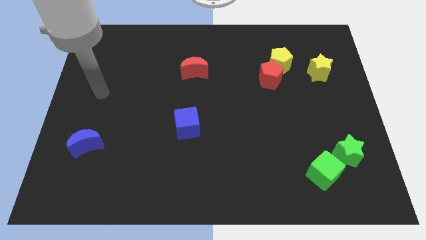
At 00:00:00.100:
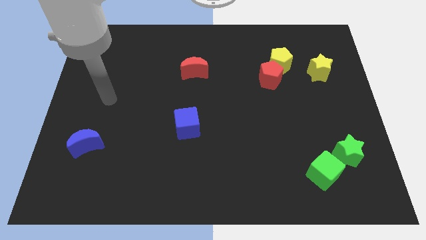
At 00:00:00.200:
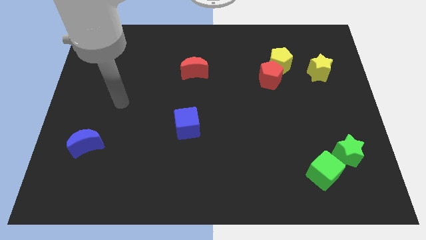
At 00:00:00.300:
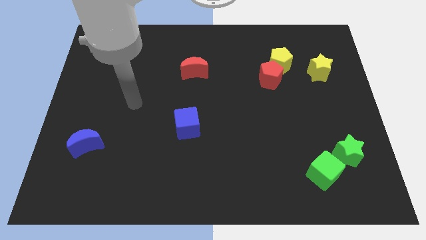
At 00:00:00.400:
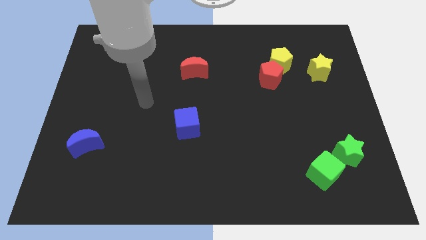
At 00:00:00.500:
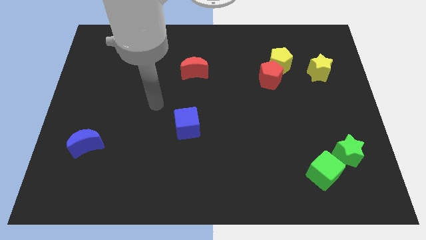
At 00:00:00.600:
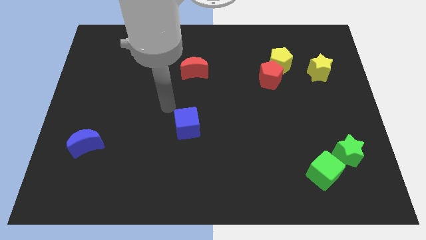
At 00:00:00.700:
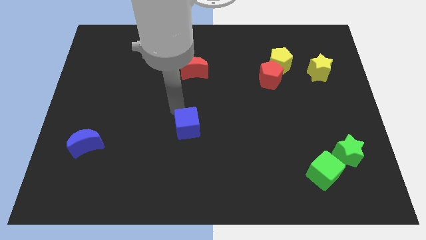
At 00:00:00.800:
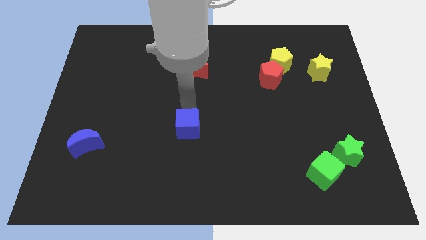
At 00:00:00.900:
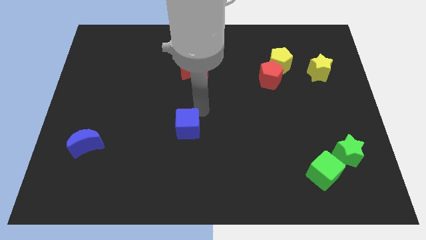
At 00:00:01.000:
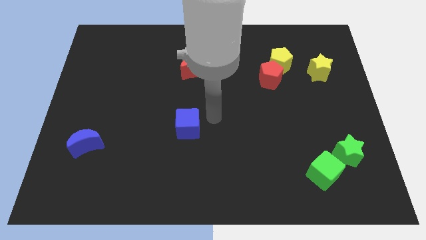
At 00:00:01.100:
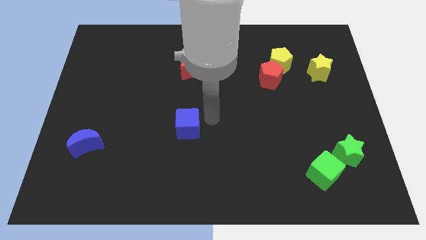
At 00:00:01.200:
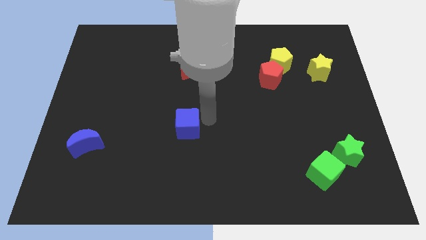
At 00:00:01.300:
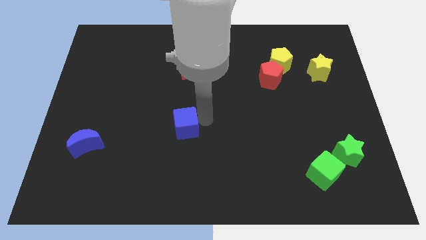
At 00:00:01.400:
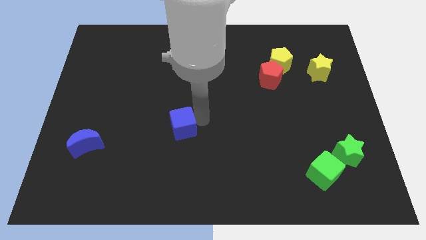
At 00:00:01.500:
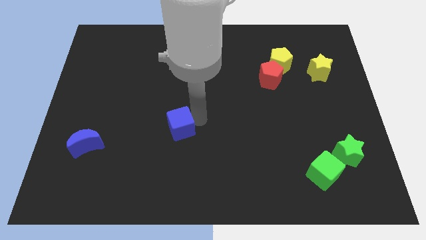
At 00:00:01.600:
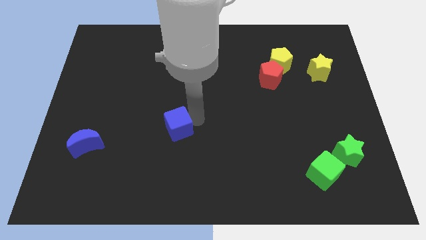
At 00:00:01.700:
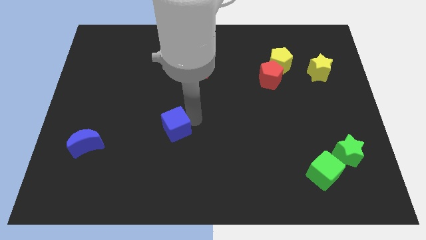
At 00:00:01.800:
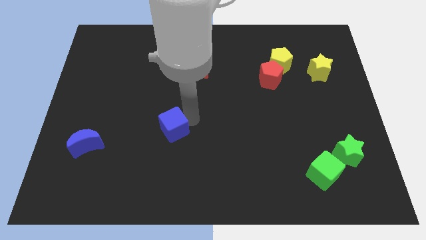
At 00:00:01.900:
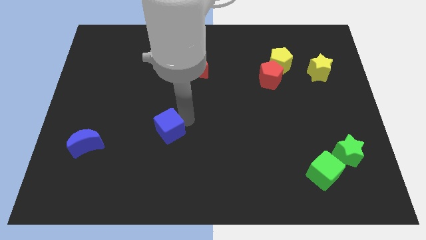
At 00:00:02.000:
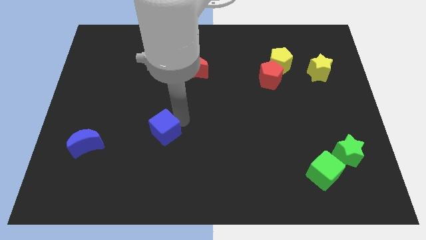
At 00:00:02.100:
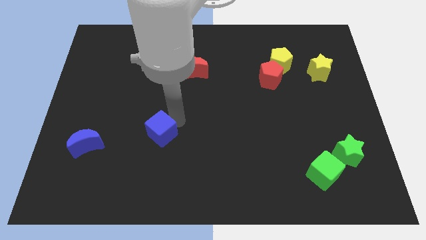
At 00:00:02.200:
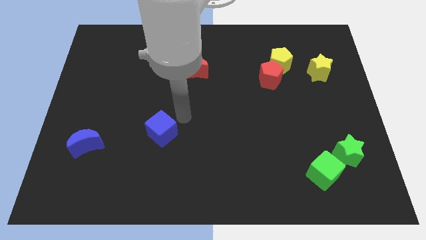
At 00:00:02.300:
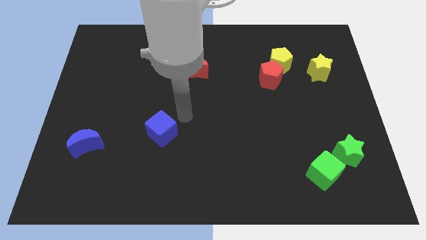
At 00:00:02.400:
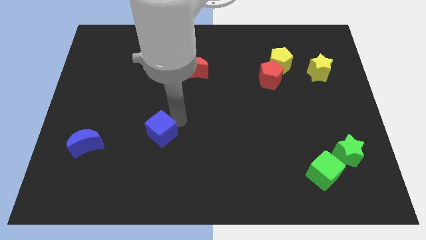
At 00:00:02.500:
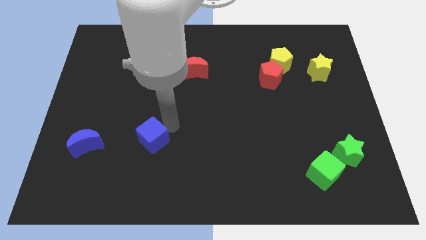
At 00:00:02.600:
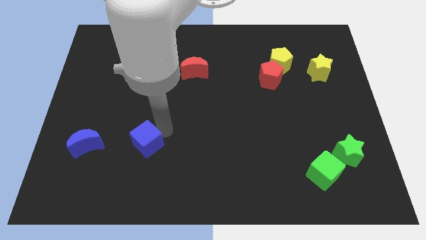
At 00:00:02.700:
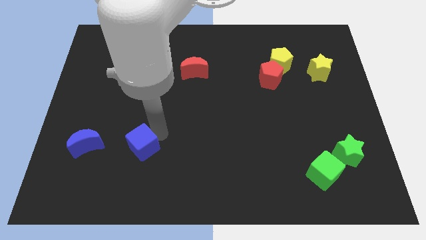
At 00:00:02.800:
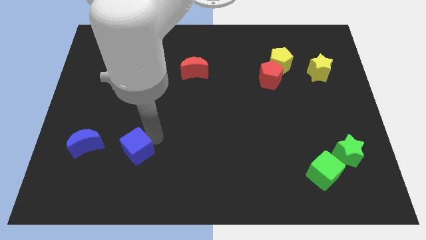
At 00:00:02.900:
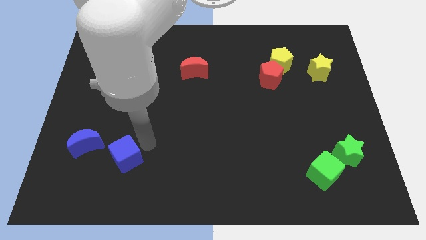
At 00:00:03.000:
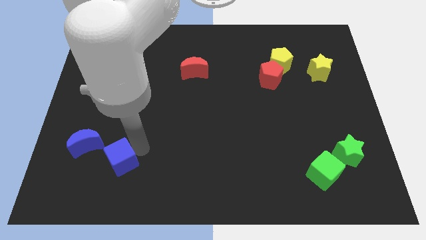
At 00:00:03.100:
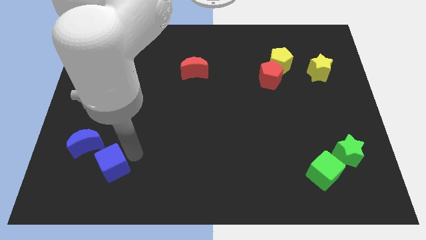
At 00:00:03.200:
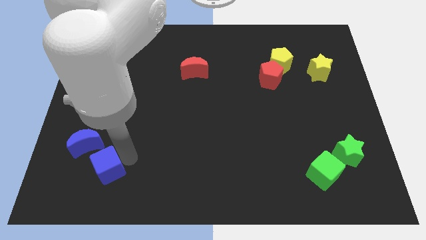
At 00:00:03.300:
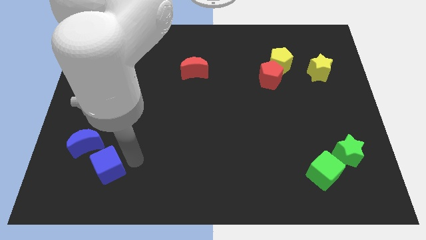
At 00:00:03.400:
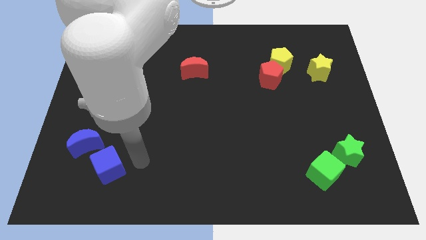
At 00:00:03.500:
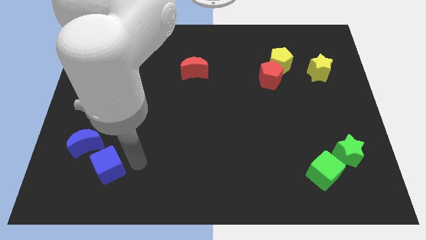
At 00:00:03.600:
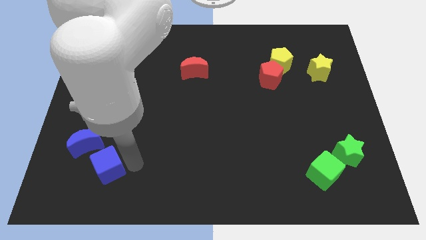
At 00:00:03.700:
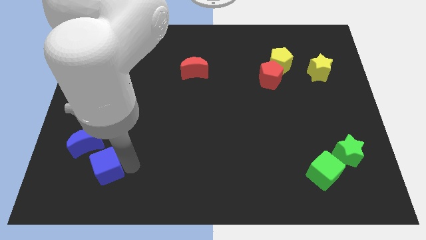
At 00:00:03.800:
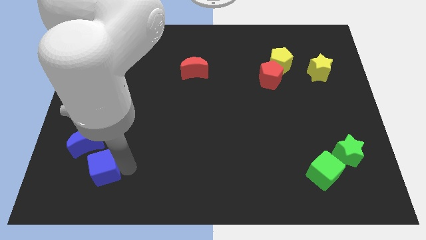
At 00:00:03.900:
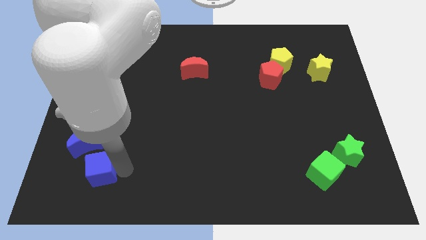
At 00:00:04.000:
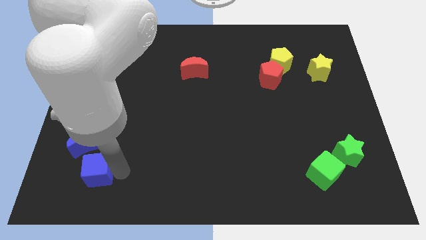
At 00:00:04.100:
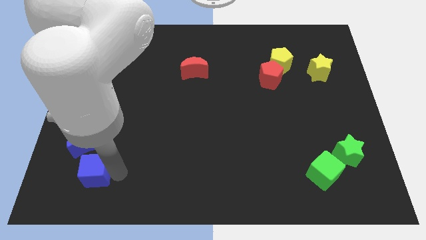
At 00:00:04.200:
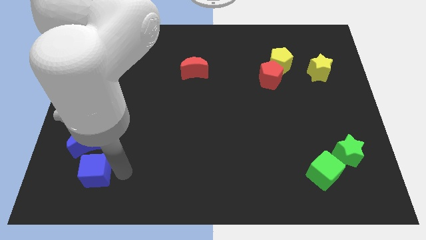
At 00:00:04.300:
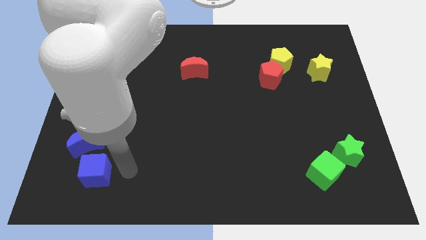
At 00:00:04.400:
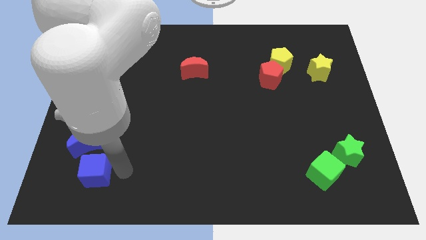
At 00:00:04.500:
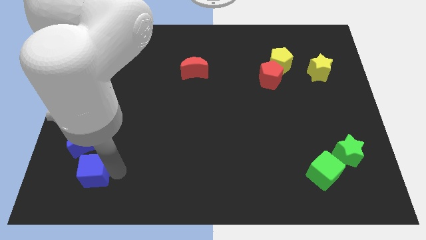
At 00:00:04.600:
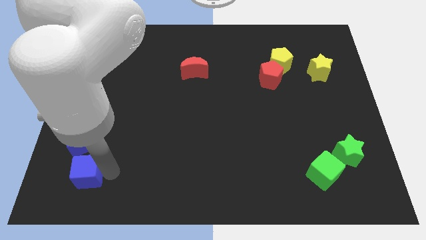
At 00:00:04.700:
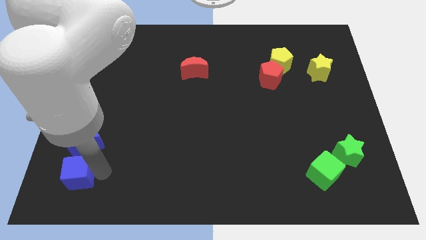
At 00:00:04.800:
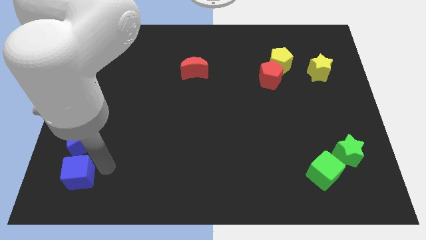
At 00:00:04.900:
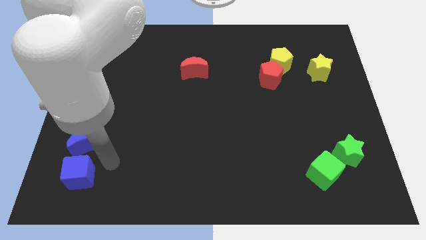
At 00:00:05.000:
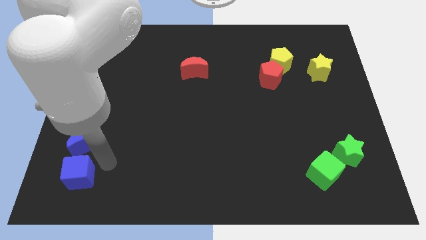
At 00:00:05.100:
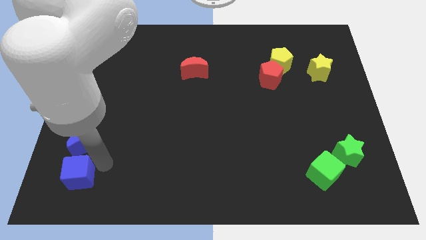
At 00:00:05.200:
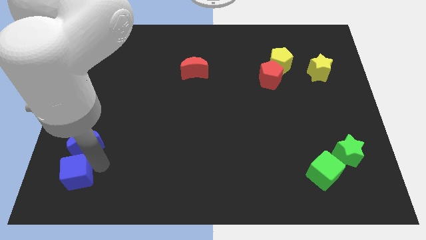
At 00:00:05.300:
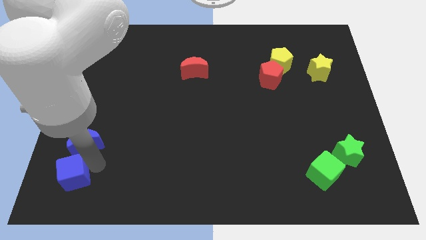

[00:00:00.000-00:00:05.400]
put the blue cube to the bottom left corner

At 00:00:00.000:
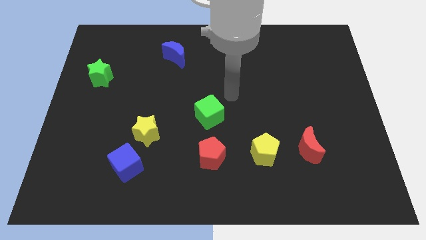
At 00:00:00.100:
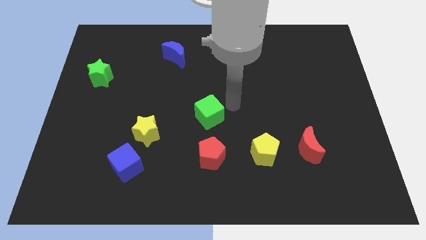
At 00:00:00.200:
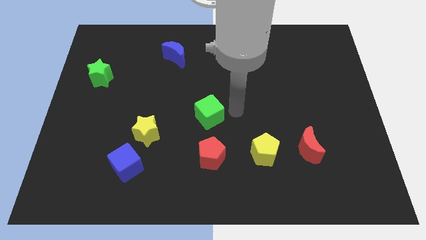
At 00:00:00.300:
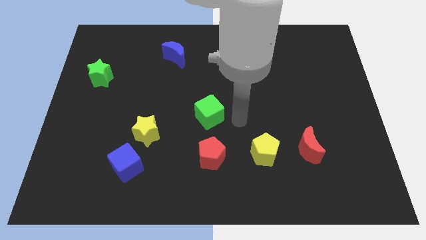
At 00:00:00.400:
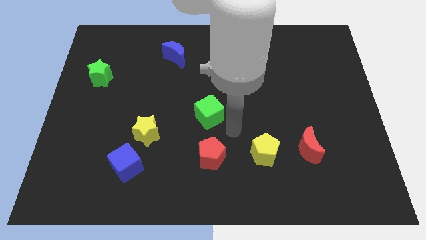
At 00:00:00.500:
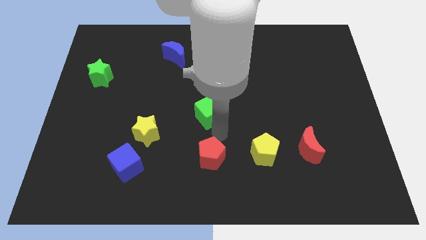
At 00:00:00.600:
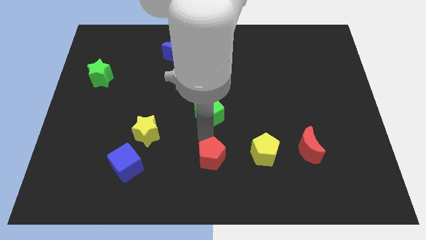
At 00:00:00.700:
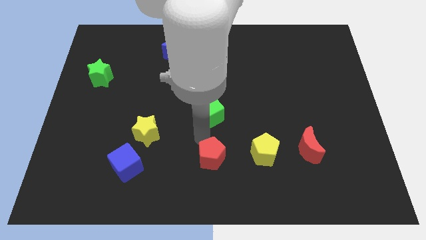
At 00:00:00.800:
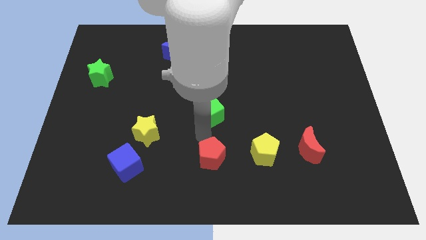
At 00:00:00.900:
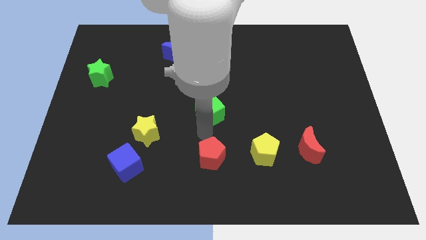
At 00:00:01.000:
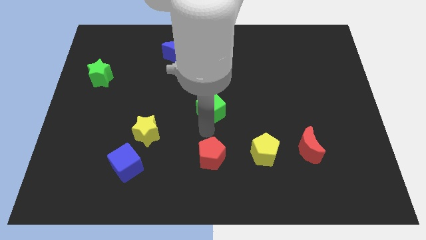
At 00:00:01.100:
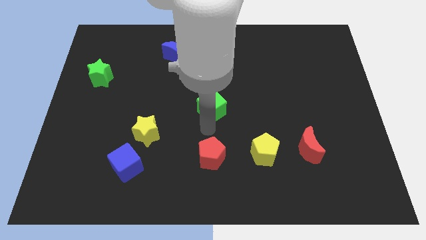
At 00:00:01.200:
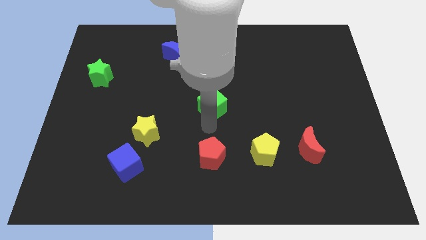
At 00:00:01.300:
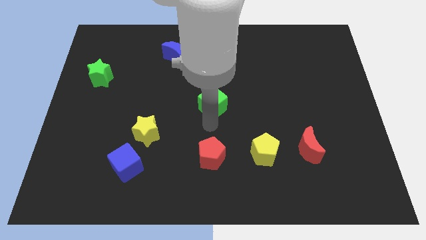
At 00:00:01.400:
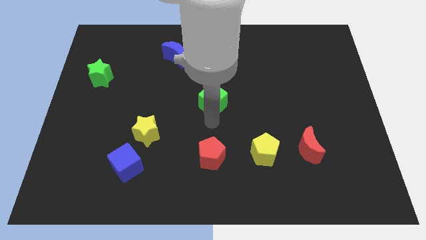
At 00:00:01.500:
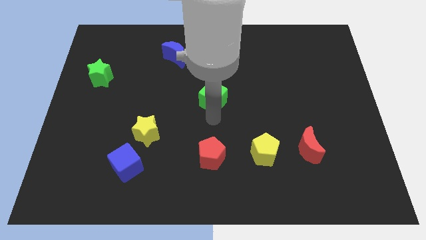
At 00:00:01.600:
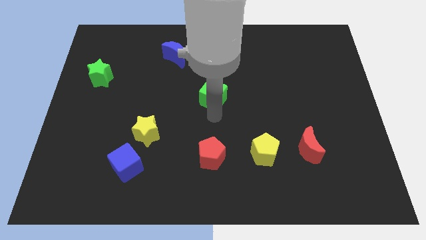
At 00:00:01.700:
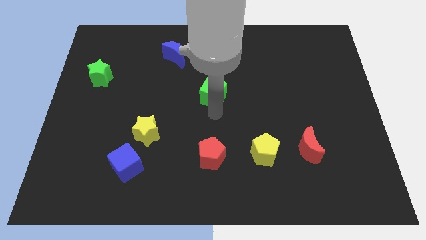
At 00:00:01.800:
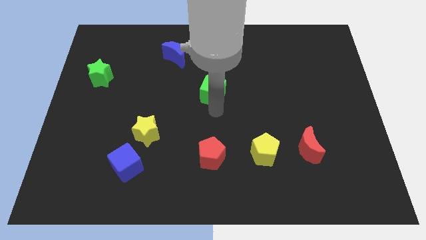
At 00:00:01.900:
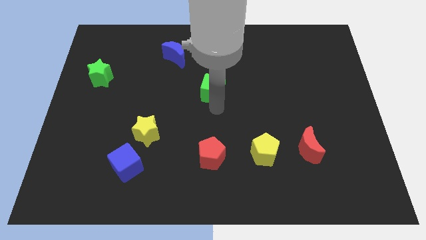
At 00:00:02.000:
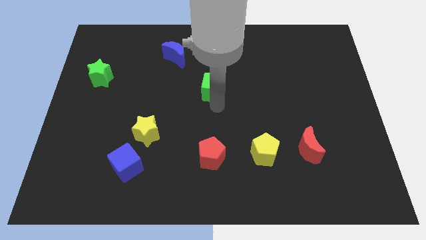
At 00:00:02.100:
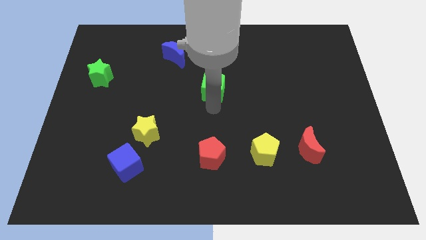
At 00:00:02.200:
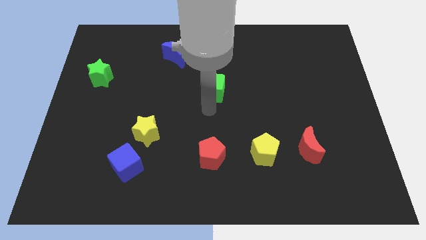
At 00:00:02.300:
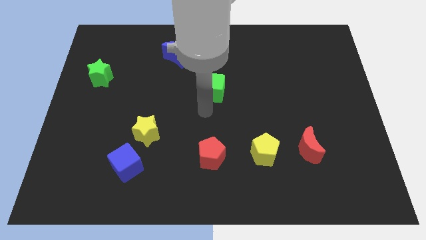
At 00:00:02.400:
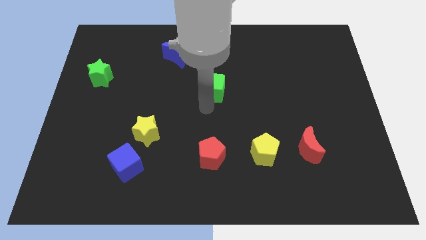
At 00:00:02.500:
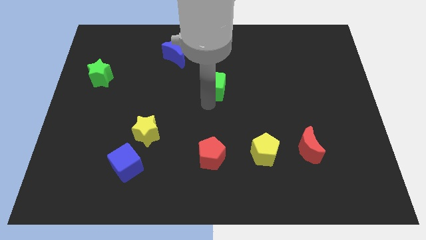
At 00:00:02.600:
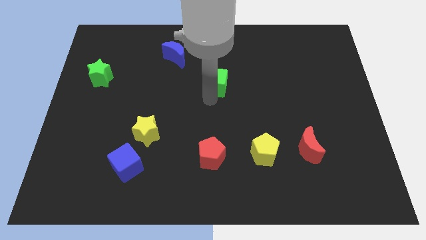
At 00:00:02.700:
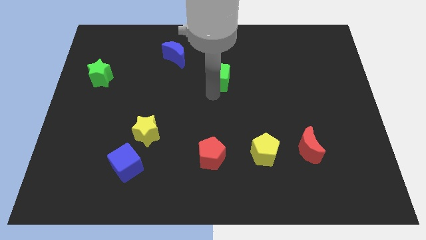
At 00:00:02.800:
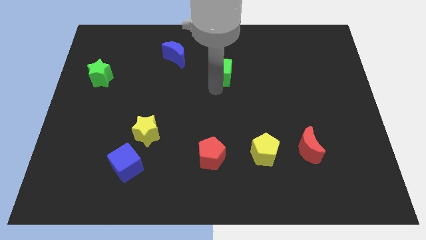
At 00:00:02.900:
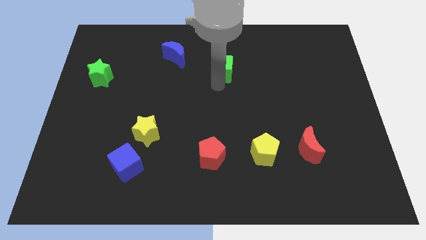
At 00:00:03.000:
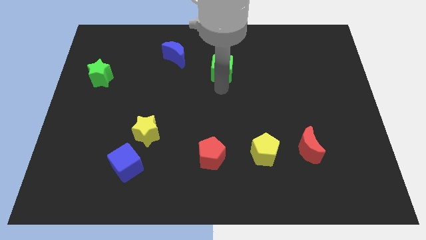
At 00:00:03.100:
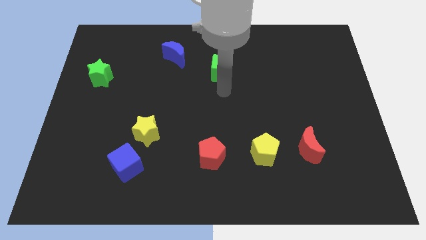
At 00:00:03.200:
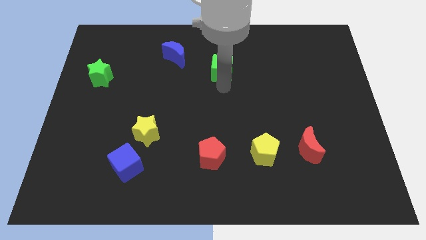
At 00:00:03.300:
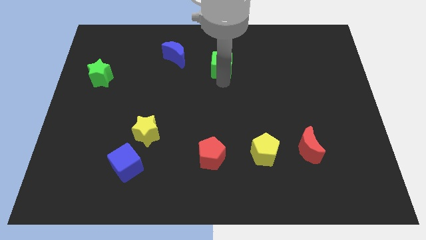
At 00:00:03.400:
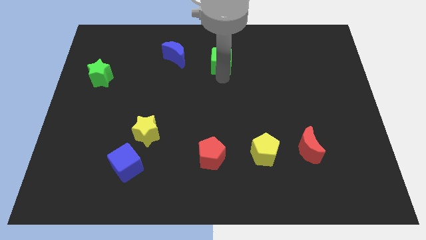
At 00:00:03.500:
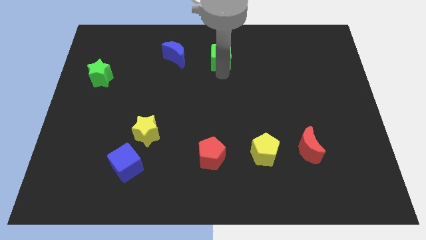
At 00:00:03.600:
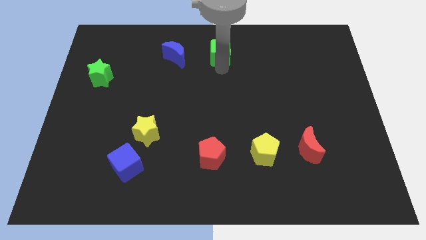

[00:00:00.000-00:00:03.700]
put the green cube to the towards your base
